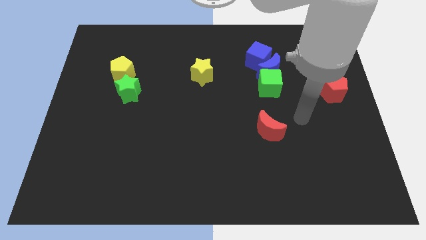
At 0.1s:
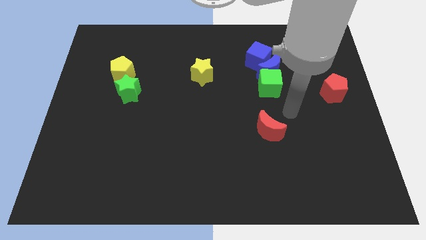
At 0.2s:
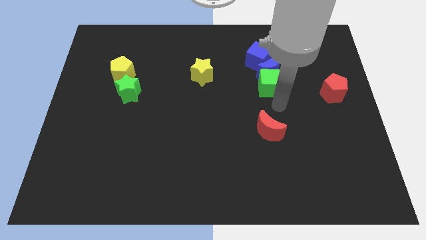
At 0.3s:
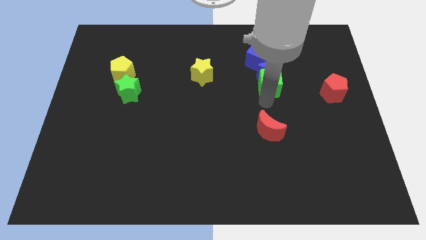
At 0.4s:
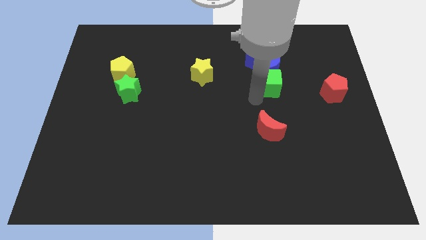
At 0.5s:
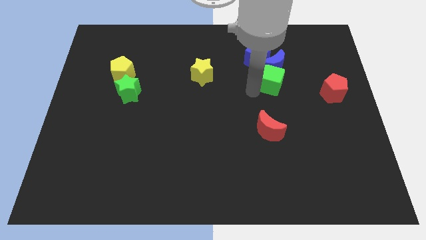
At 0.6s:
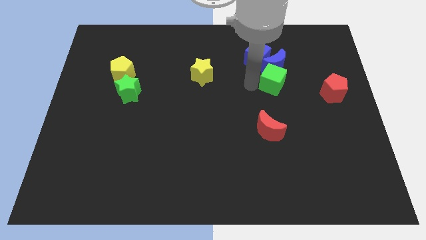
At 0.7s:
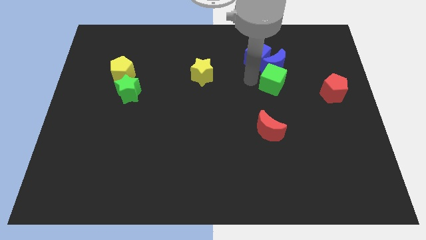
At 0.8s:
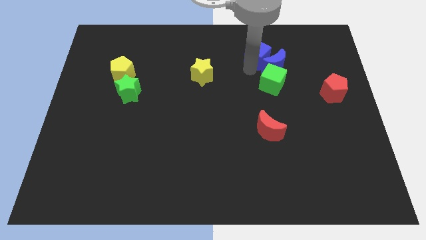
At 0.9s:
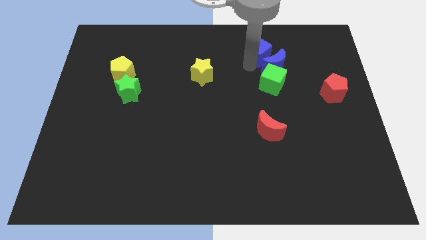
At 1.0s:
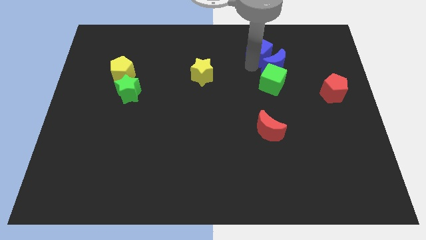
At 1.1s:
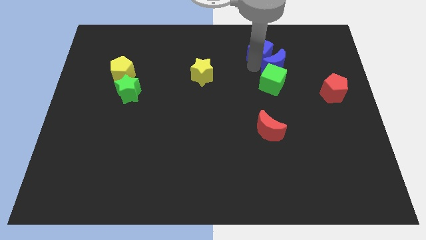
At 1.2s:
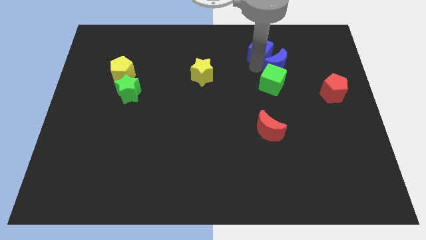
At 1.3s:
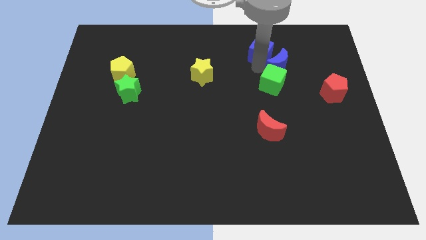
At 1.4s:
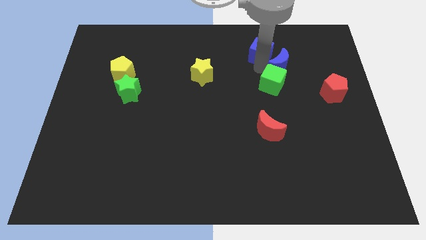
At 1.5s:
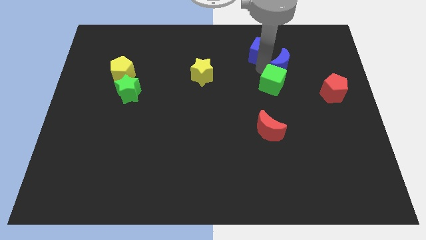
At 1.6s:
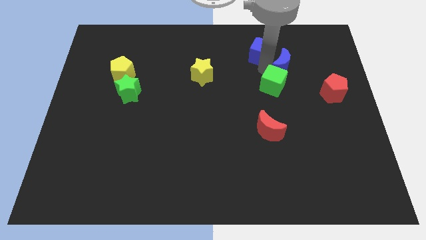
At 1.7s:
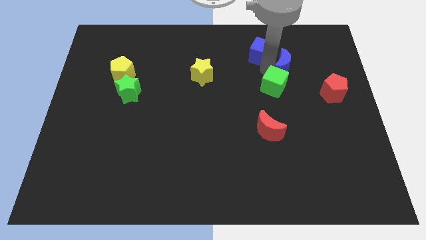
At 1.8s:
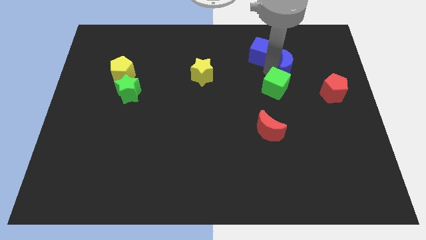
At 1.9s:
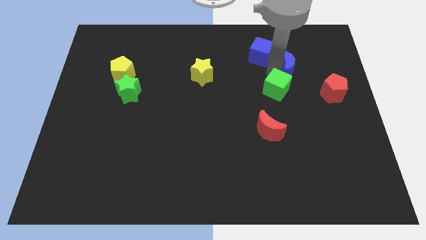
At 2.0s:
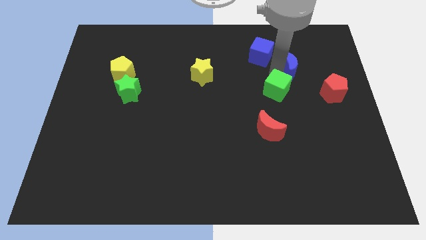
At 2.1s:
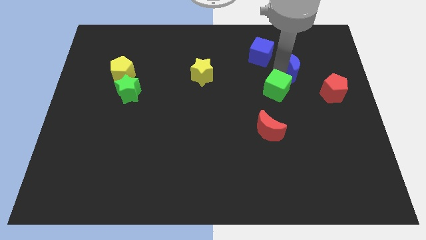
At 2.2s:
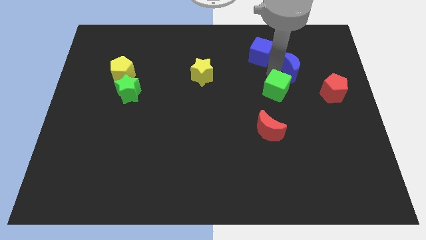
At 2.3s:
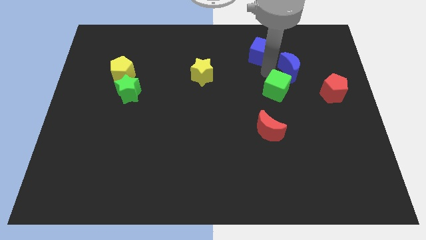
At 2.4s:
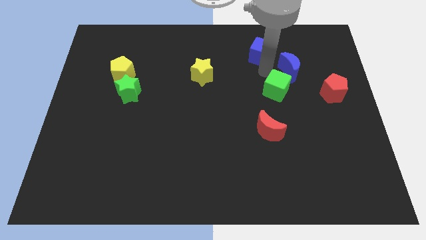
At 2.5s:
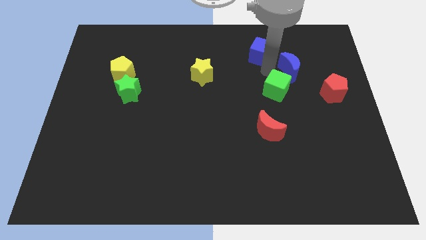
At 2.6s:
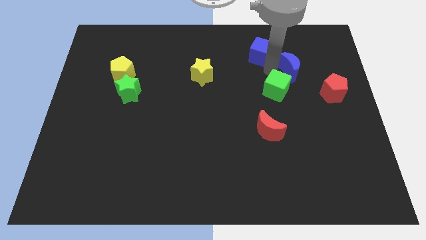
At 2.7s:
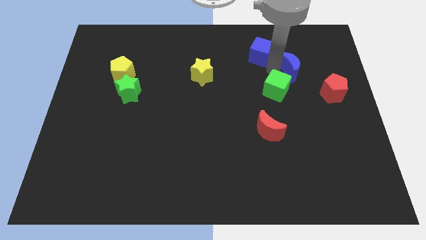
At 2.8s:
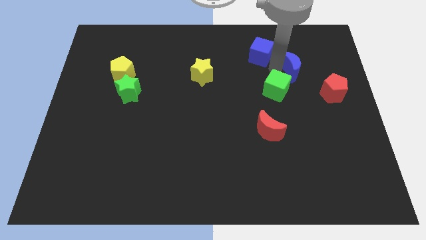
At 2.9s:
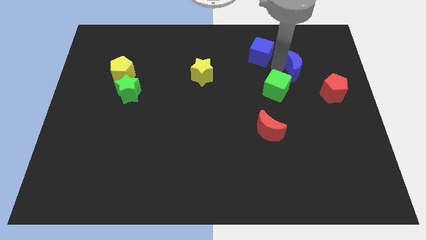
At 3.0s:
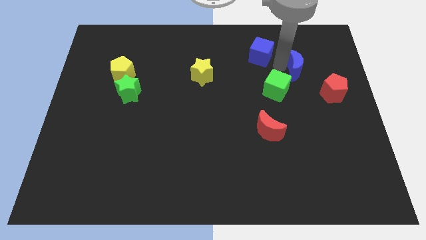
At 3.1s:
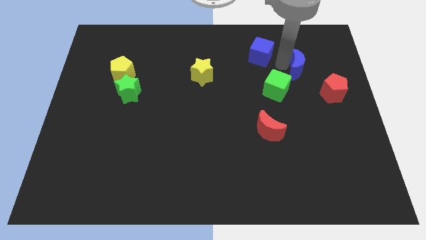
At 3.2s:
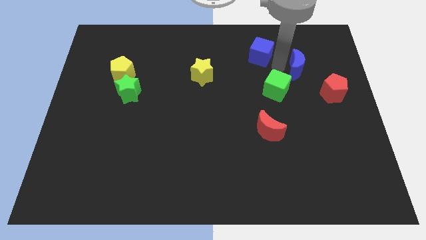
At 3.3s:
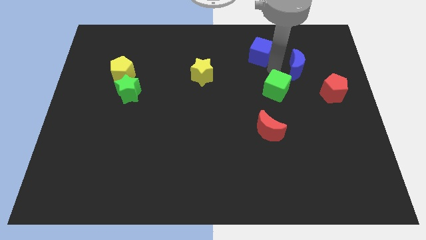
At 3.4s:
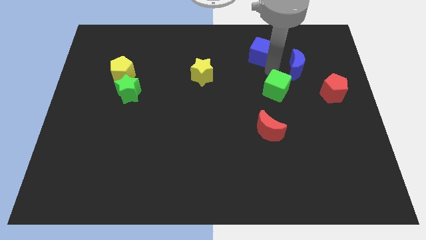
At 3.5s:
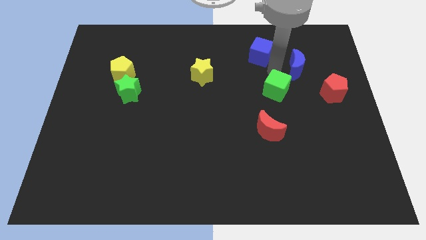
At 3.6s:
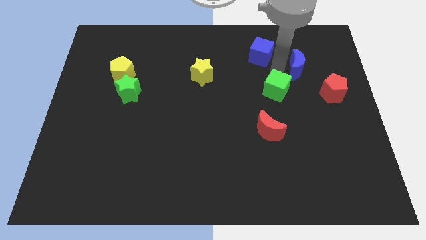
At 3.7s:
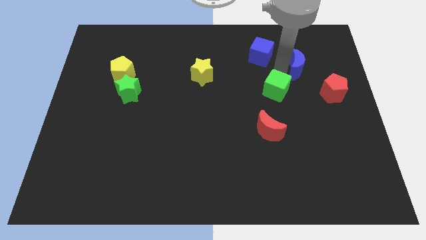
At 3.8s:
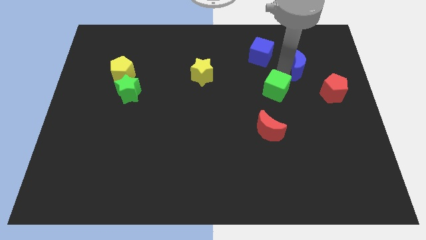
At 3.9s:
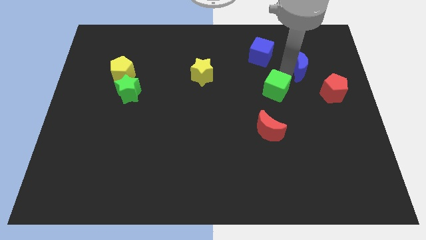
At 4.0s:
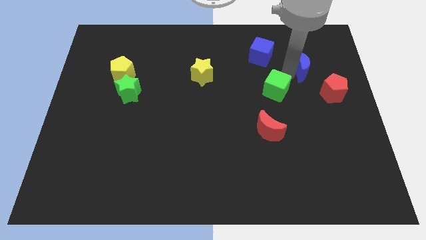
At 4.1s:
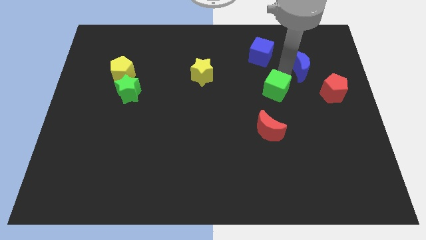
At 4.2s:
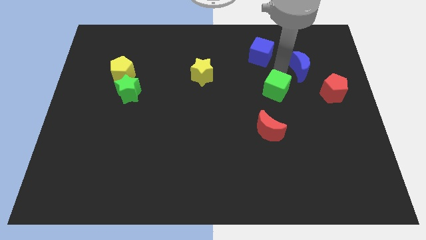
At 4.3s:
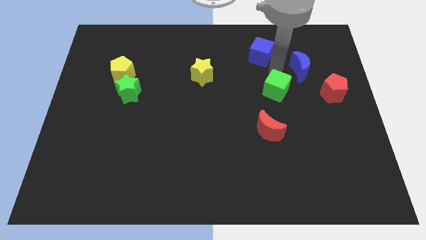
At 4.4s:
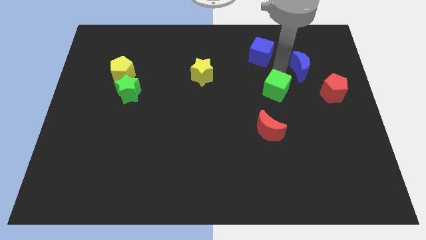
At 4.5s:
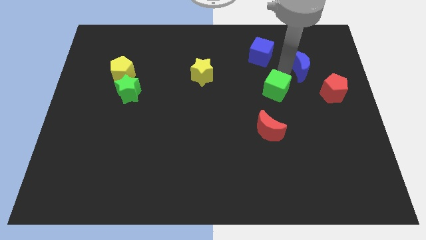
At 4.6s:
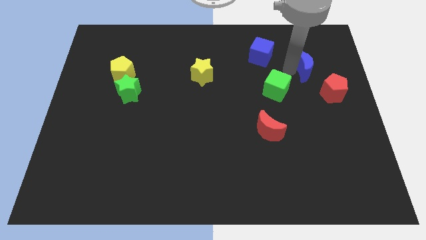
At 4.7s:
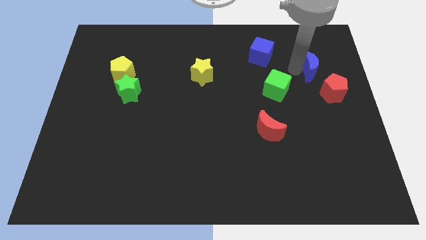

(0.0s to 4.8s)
separate the blue moon from the green cube and blue cube

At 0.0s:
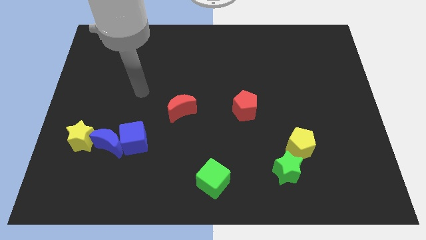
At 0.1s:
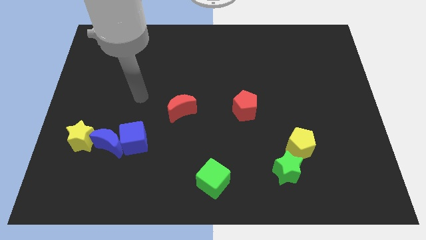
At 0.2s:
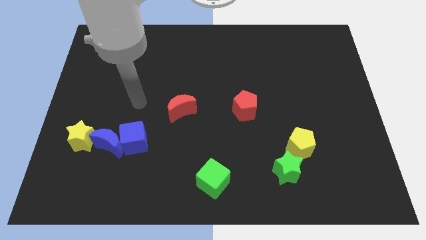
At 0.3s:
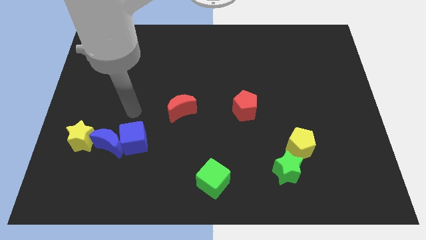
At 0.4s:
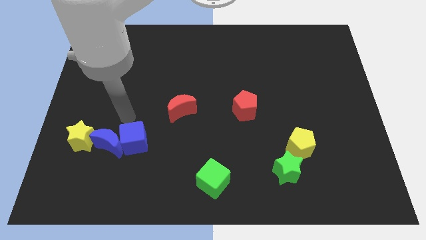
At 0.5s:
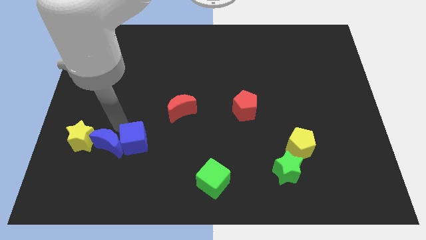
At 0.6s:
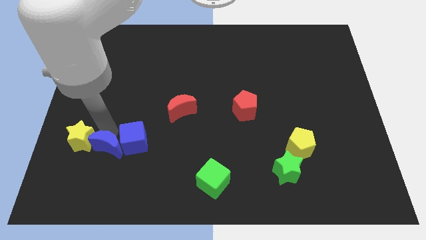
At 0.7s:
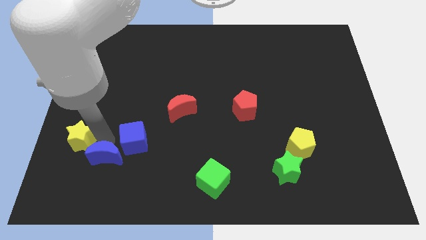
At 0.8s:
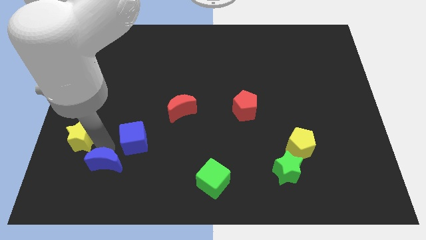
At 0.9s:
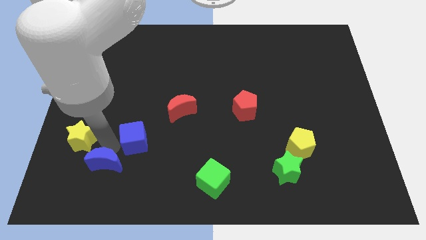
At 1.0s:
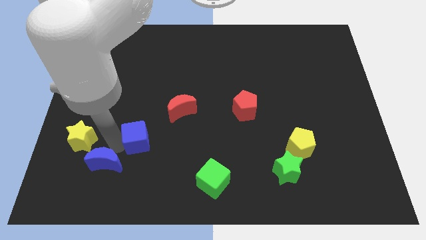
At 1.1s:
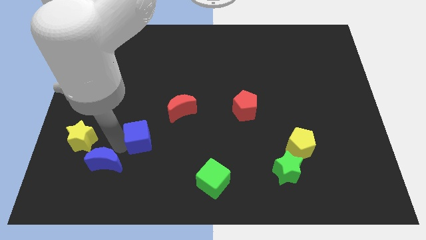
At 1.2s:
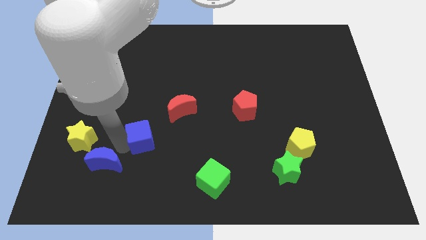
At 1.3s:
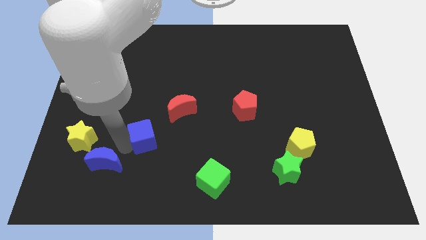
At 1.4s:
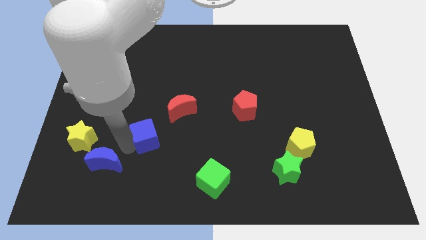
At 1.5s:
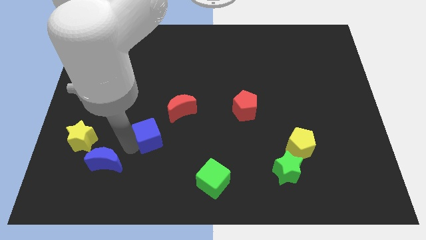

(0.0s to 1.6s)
pull the blue cube apart from the blue moon

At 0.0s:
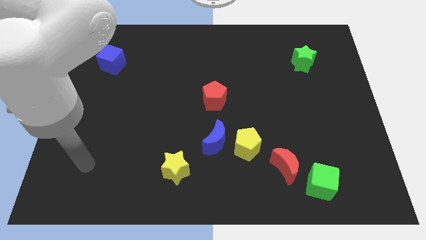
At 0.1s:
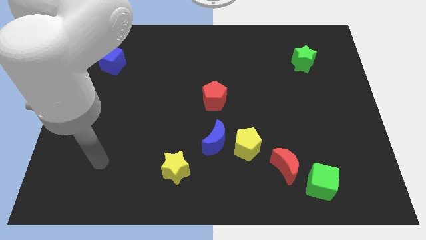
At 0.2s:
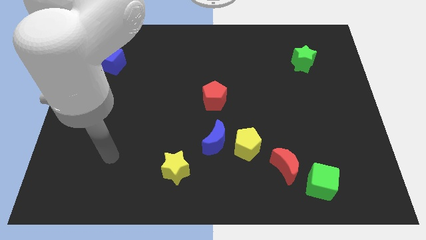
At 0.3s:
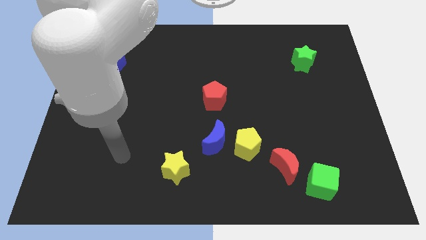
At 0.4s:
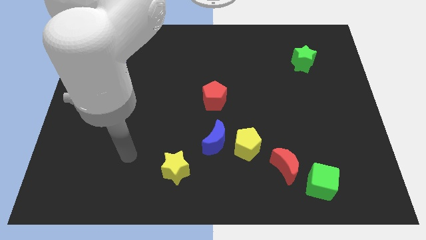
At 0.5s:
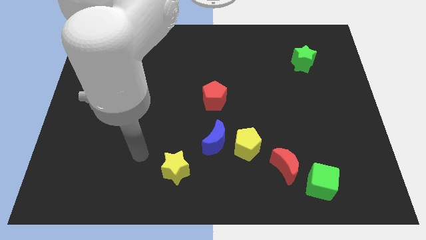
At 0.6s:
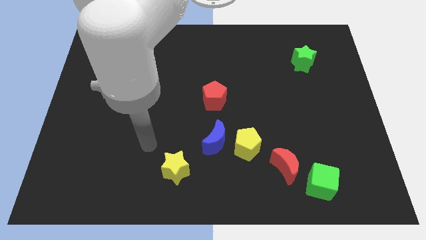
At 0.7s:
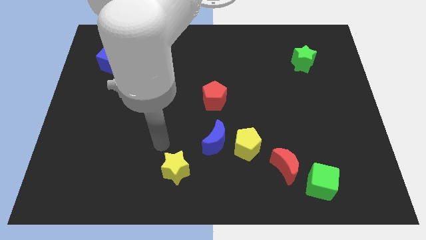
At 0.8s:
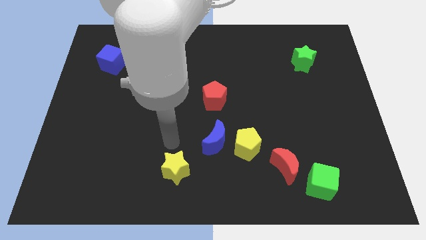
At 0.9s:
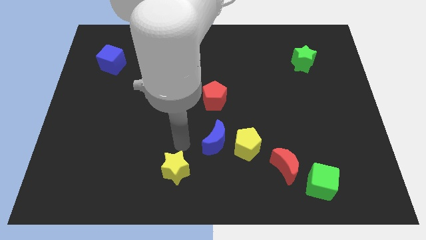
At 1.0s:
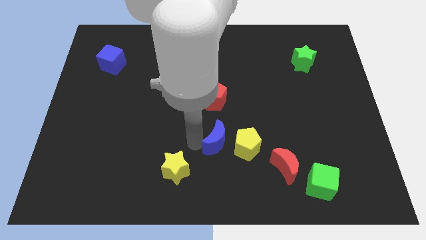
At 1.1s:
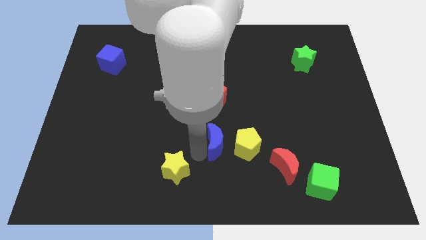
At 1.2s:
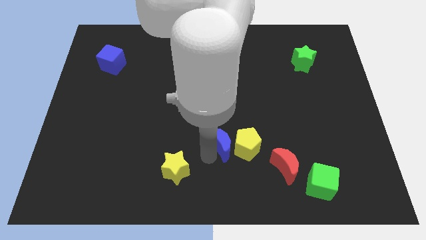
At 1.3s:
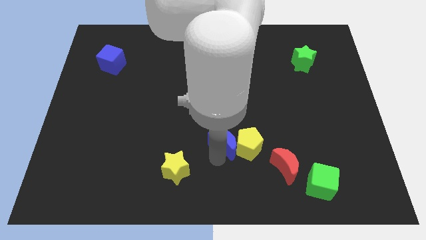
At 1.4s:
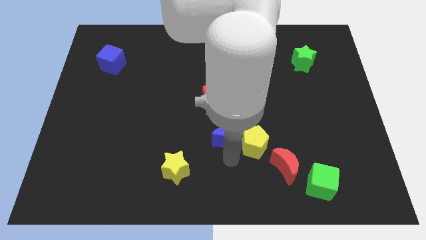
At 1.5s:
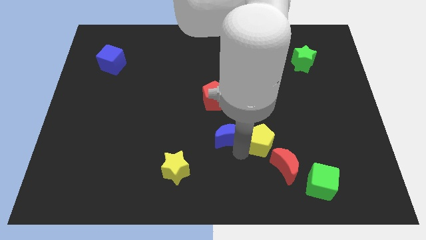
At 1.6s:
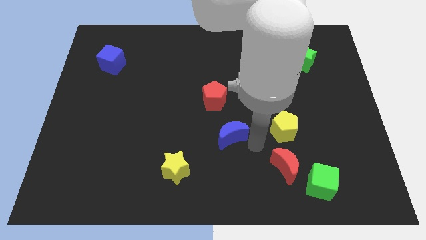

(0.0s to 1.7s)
separate the blue moon from the yellow pentagon

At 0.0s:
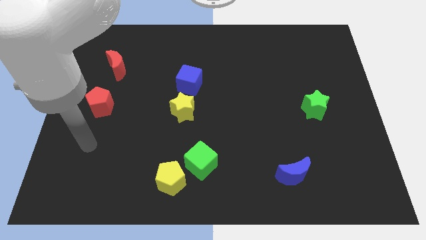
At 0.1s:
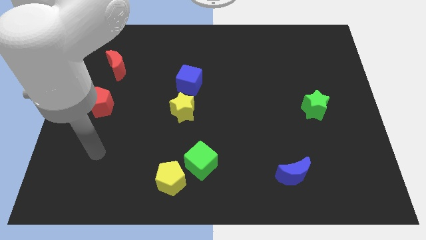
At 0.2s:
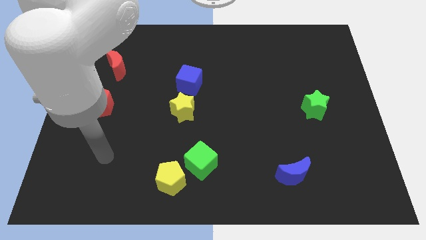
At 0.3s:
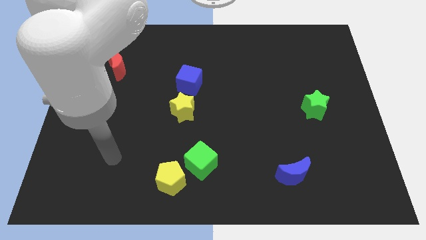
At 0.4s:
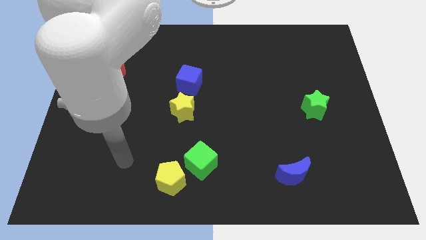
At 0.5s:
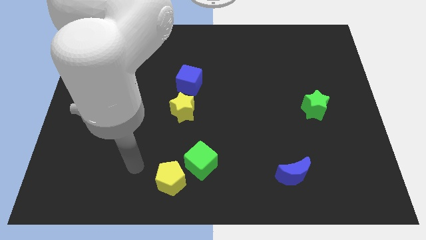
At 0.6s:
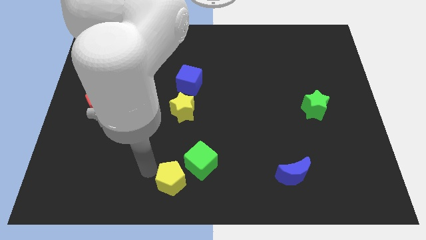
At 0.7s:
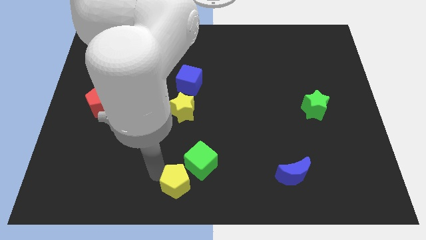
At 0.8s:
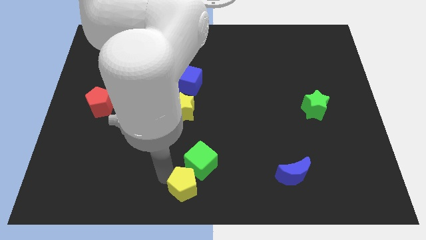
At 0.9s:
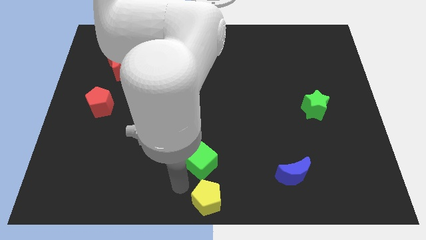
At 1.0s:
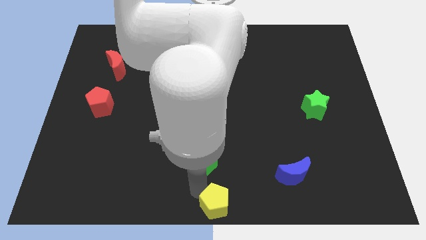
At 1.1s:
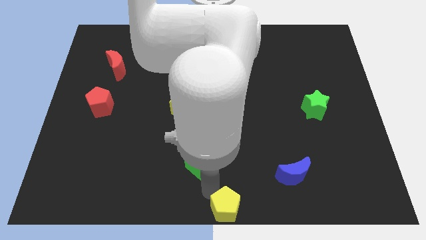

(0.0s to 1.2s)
separate the green cube from the yellow pentagon

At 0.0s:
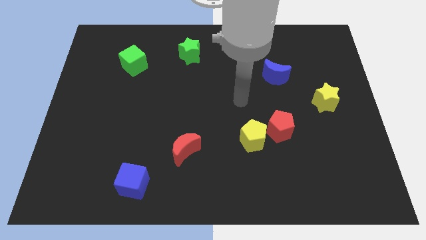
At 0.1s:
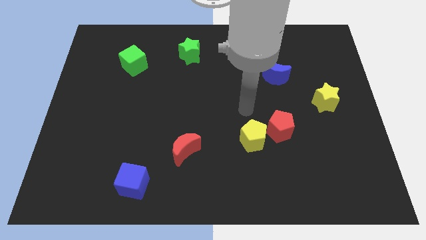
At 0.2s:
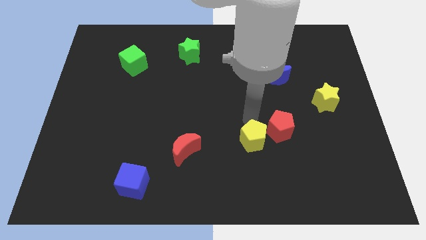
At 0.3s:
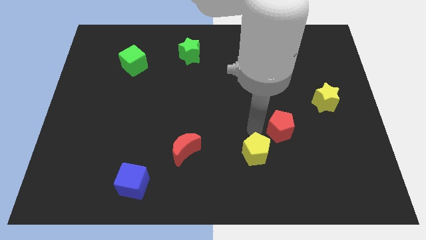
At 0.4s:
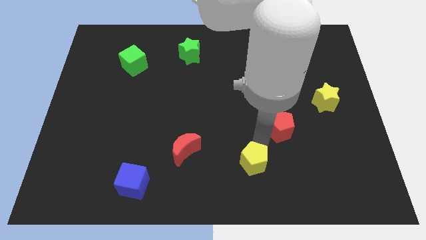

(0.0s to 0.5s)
separate the red pentagon from the yellow pentagon
